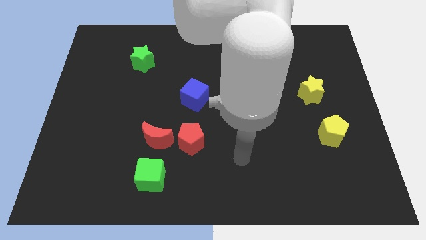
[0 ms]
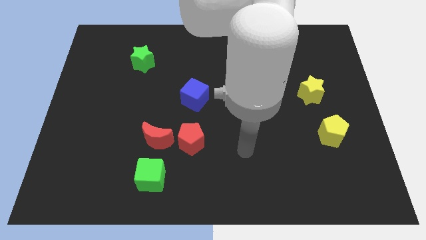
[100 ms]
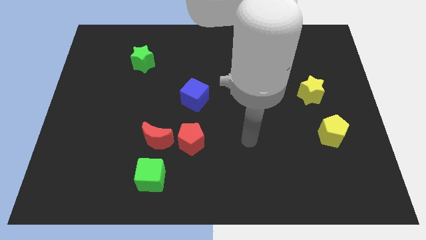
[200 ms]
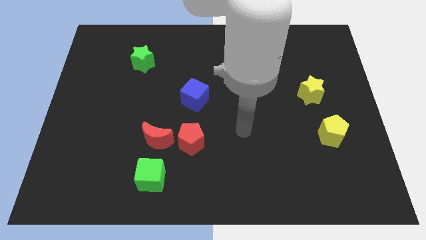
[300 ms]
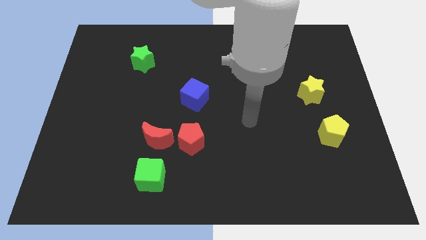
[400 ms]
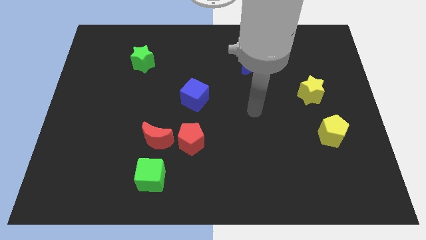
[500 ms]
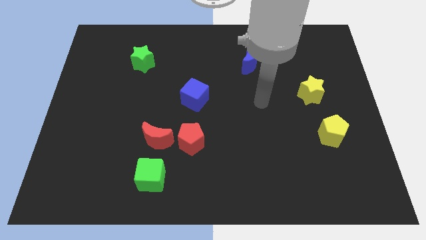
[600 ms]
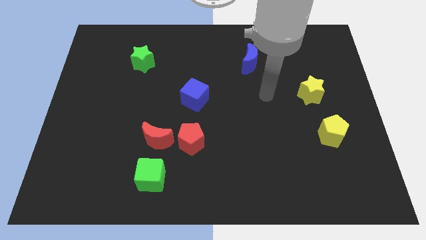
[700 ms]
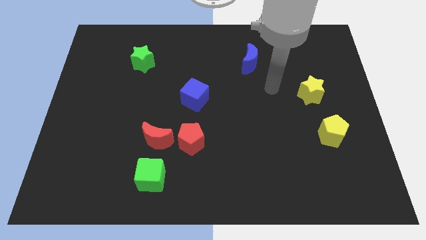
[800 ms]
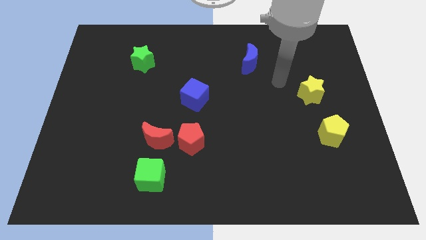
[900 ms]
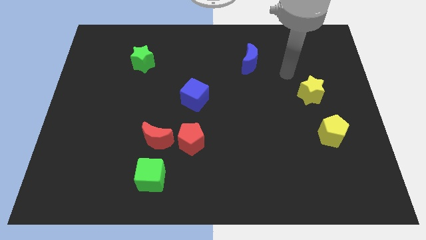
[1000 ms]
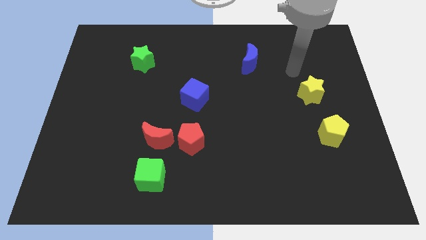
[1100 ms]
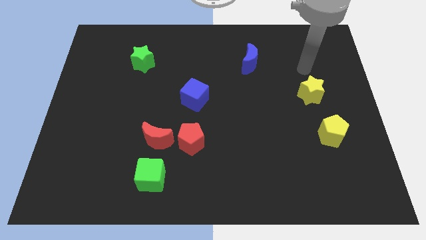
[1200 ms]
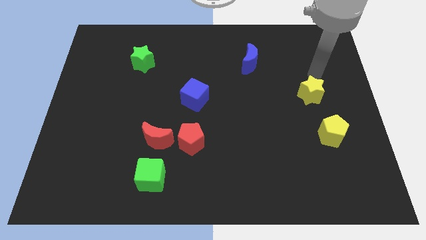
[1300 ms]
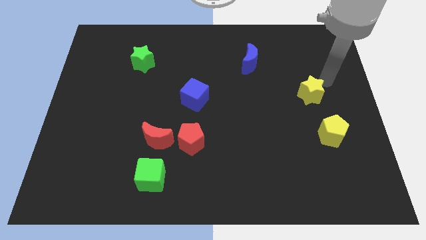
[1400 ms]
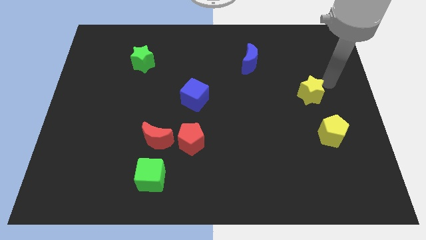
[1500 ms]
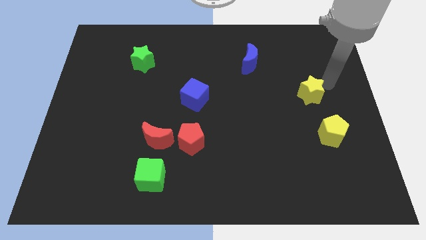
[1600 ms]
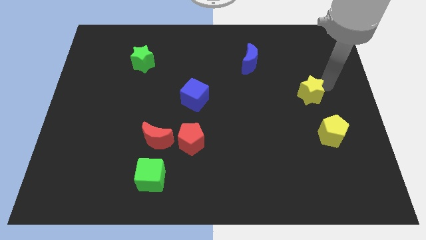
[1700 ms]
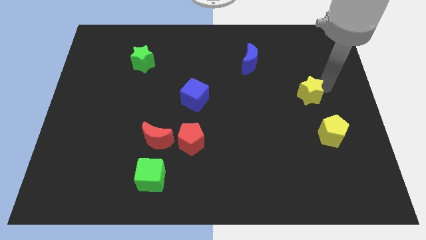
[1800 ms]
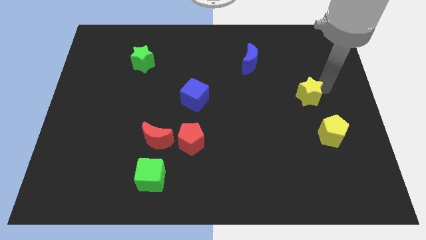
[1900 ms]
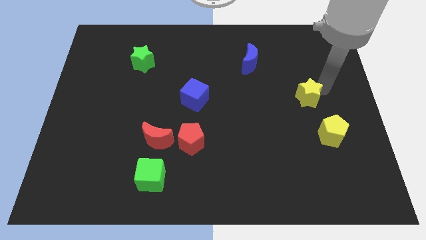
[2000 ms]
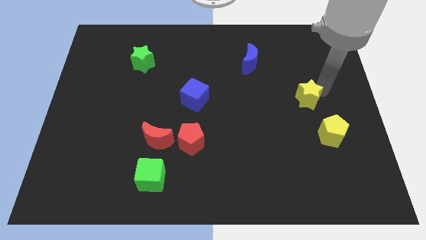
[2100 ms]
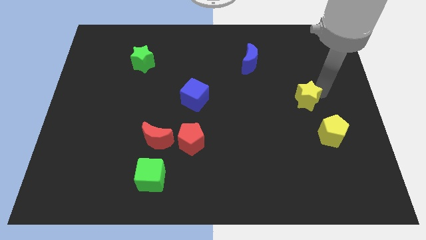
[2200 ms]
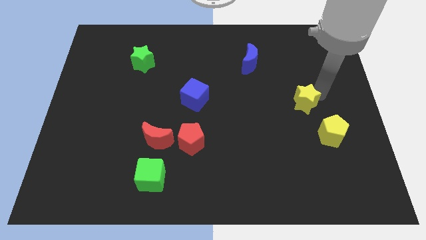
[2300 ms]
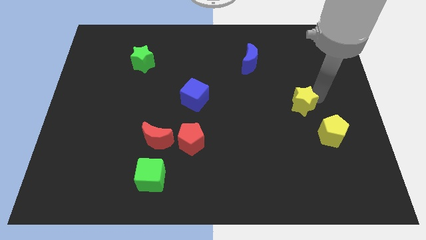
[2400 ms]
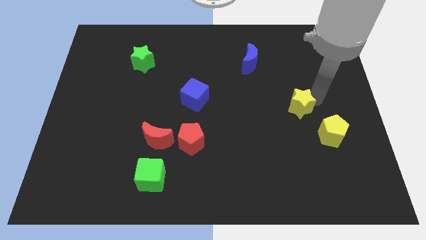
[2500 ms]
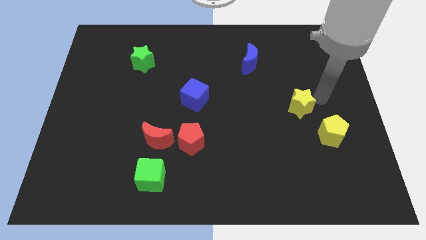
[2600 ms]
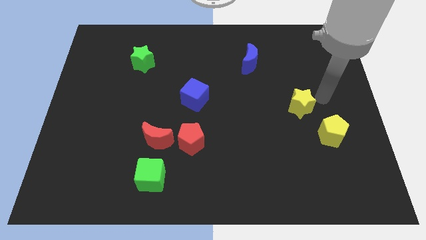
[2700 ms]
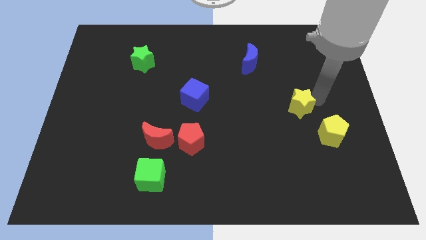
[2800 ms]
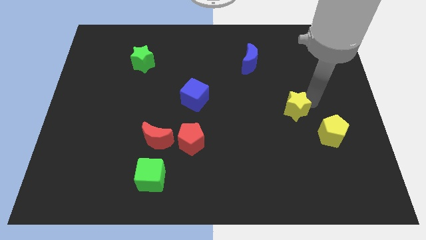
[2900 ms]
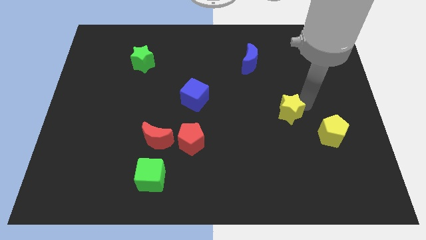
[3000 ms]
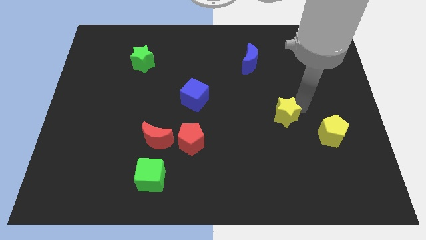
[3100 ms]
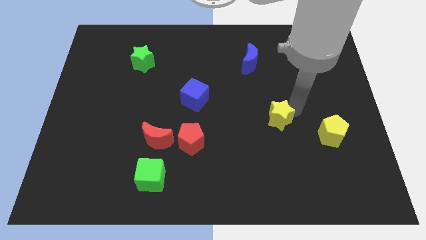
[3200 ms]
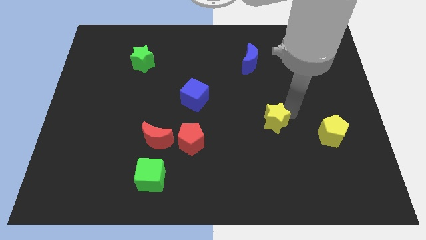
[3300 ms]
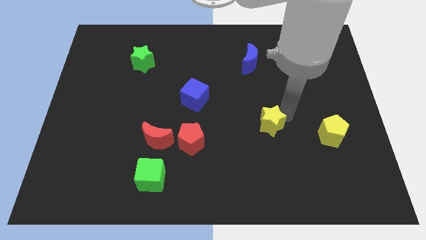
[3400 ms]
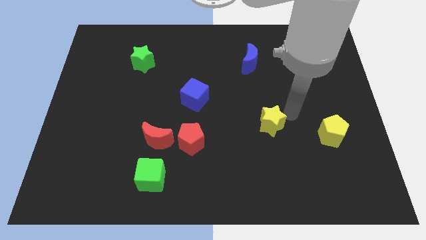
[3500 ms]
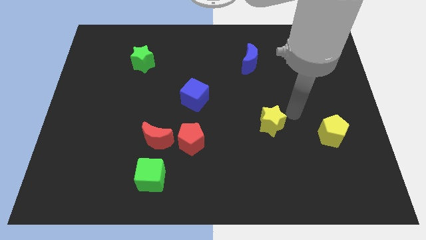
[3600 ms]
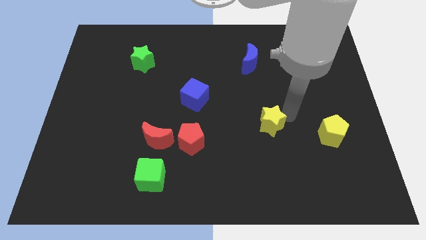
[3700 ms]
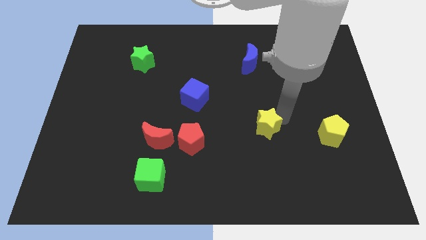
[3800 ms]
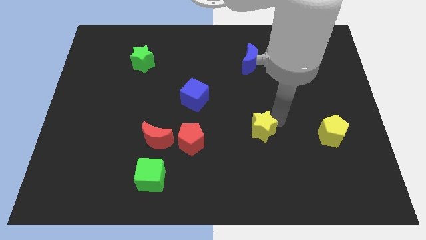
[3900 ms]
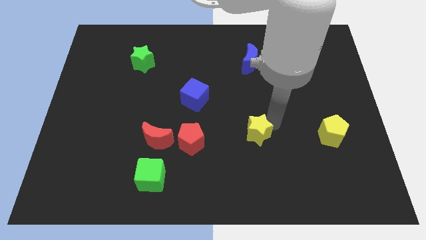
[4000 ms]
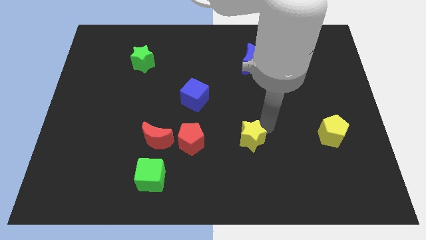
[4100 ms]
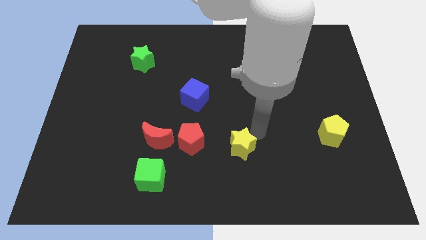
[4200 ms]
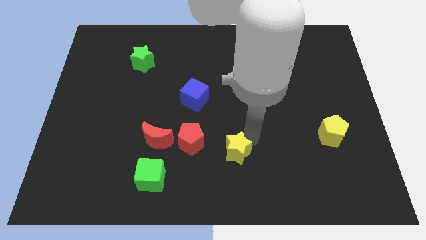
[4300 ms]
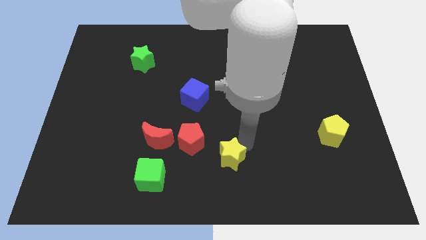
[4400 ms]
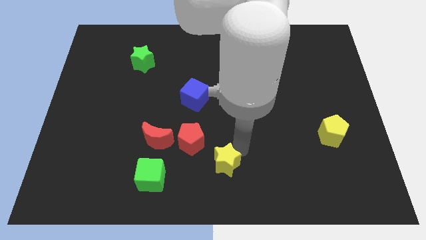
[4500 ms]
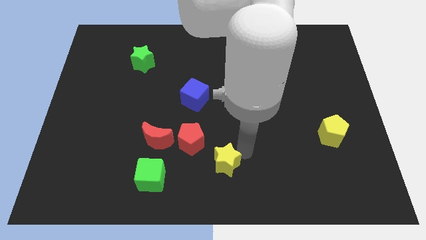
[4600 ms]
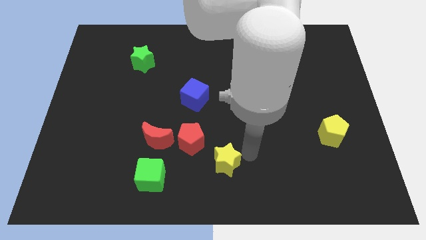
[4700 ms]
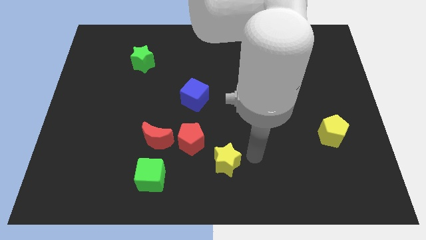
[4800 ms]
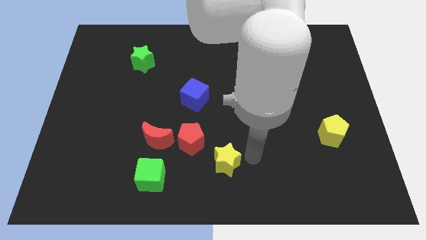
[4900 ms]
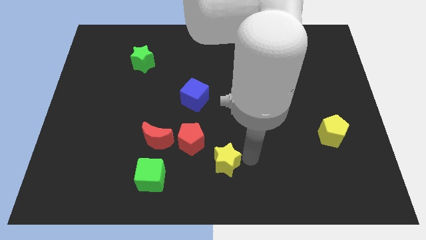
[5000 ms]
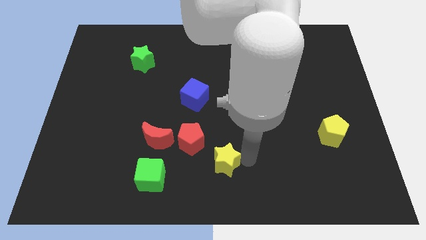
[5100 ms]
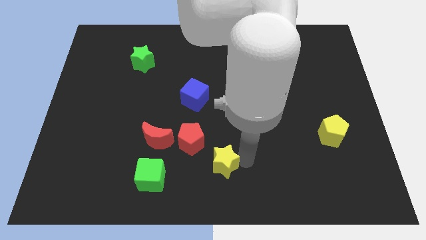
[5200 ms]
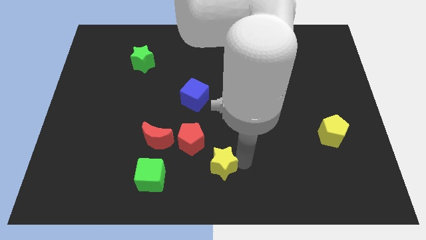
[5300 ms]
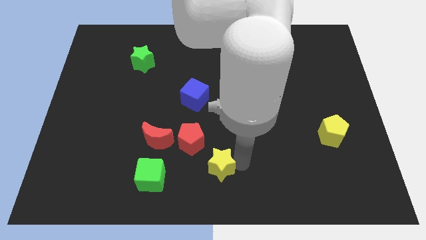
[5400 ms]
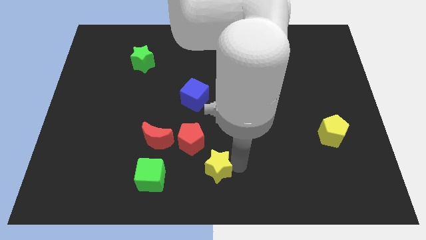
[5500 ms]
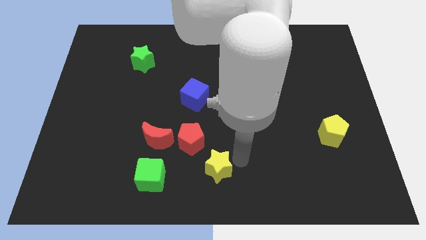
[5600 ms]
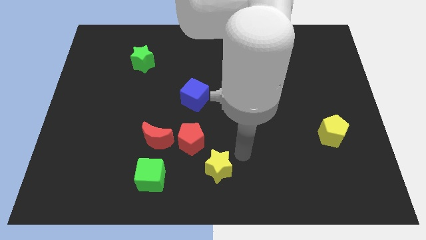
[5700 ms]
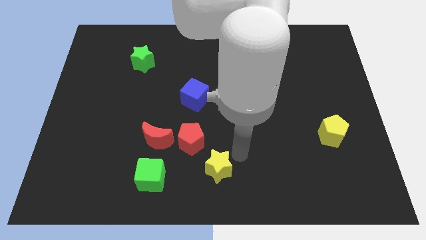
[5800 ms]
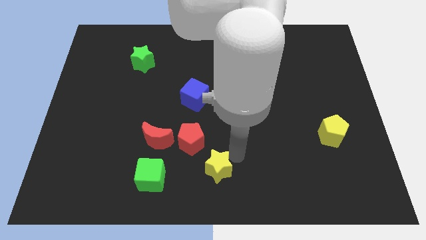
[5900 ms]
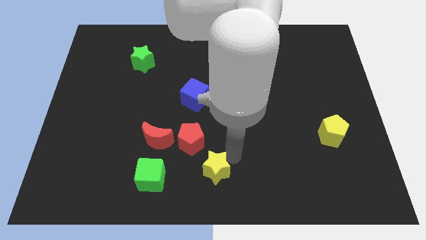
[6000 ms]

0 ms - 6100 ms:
slide the yellow star to the bottom side of the red pentagon

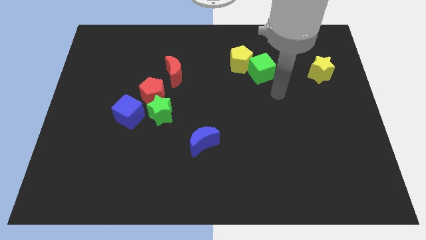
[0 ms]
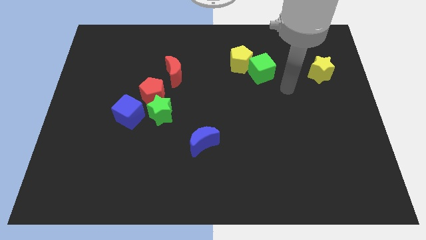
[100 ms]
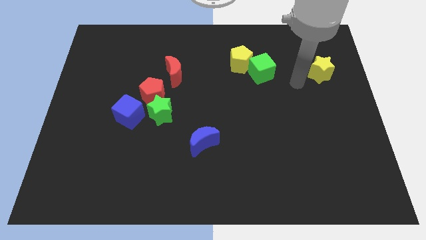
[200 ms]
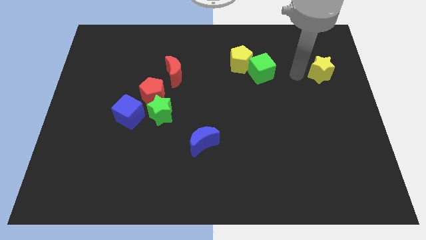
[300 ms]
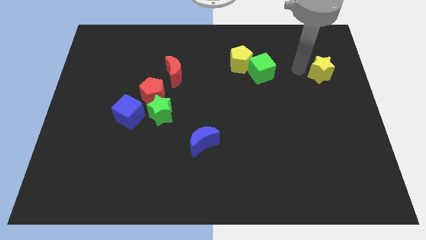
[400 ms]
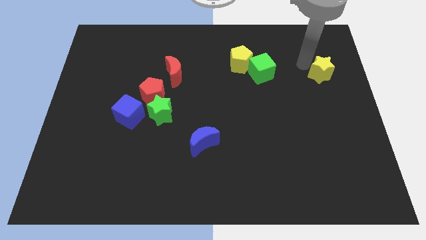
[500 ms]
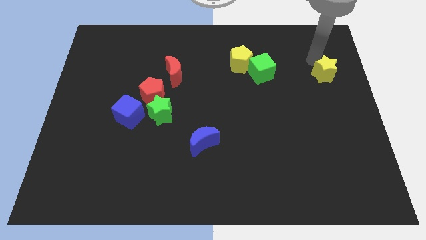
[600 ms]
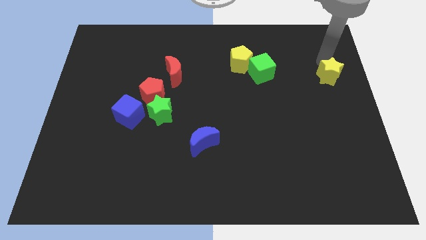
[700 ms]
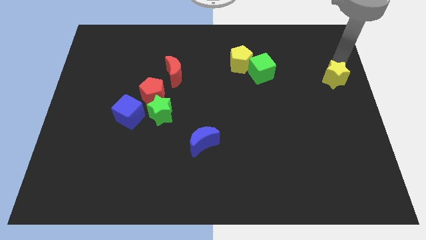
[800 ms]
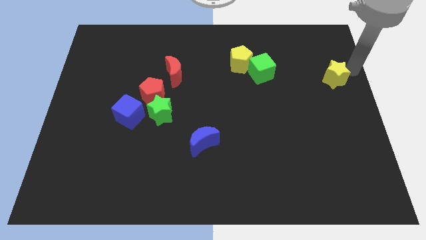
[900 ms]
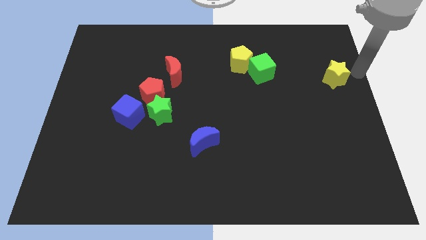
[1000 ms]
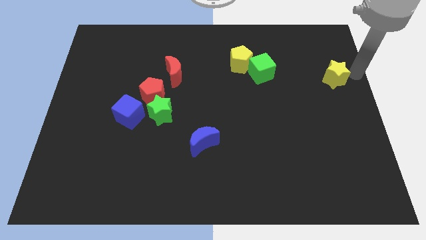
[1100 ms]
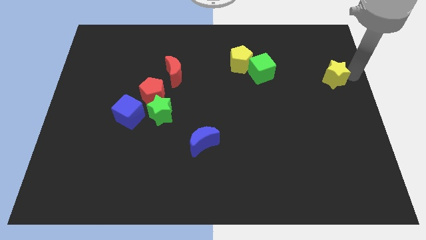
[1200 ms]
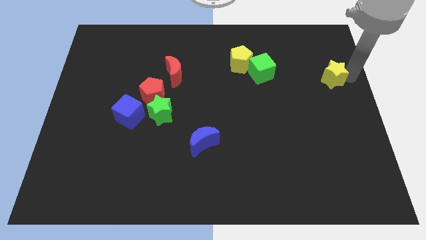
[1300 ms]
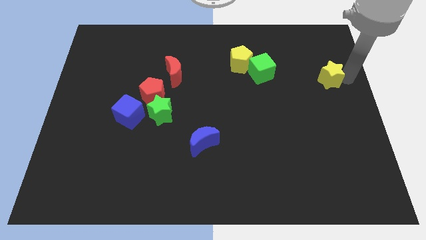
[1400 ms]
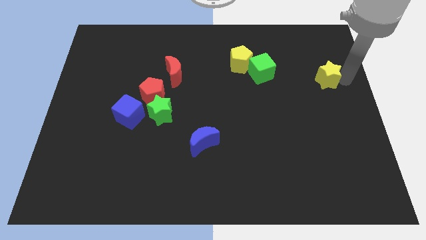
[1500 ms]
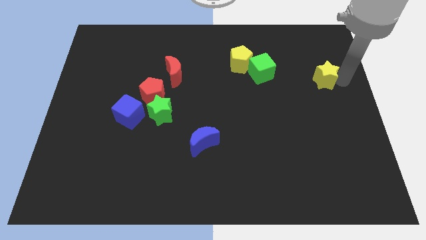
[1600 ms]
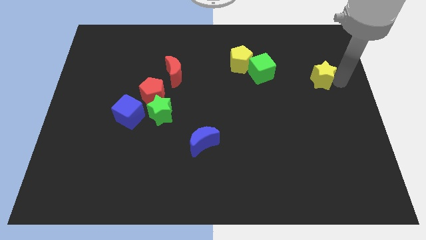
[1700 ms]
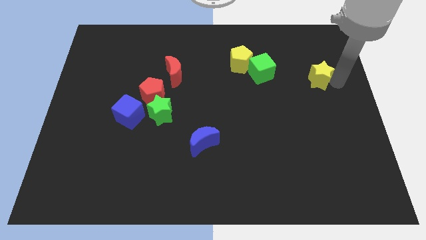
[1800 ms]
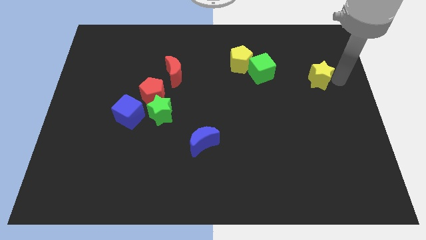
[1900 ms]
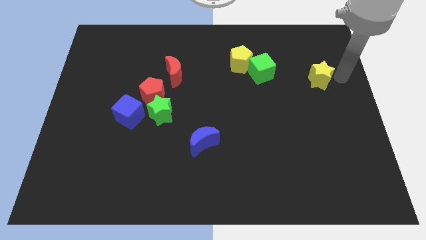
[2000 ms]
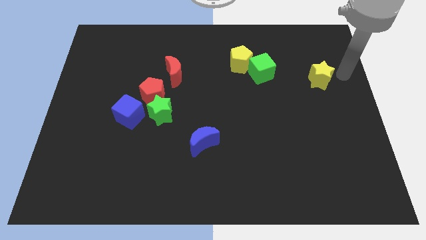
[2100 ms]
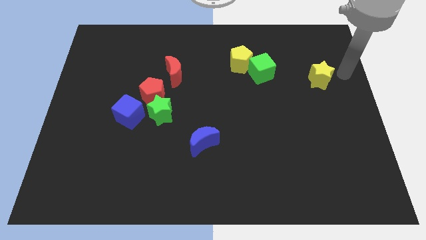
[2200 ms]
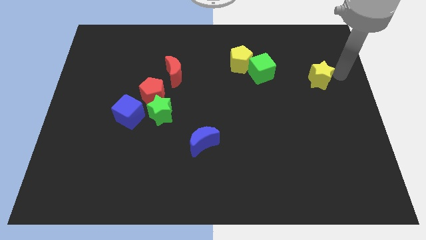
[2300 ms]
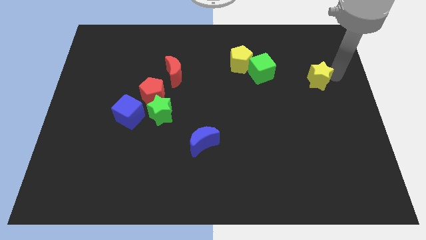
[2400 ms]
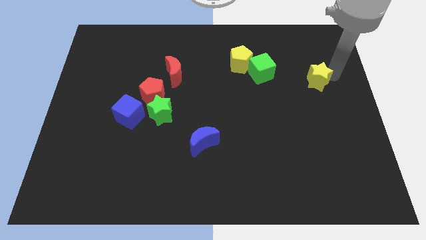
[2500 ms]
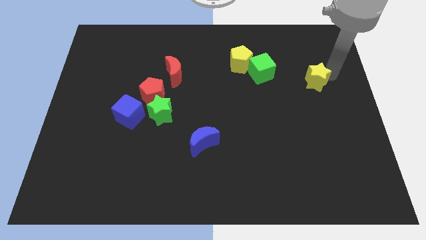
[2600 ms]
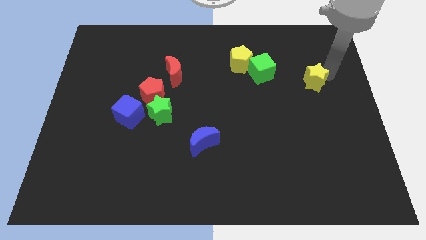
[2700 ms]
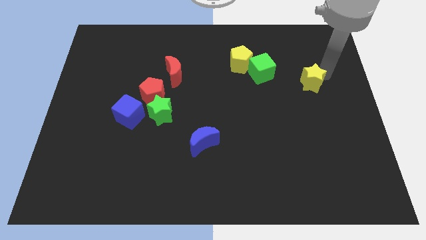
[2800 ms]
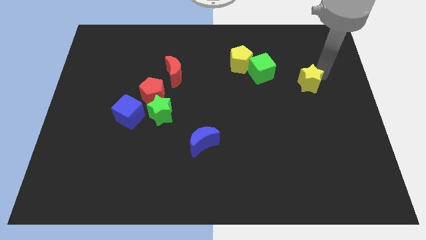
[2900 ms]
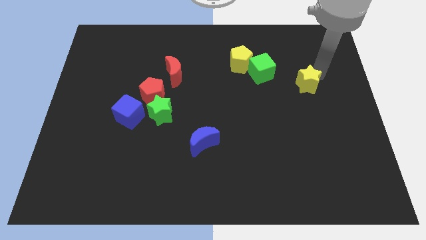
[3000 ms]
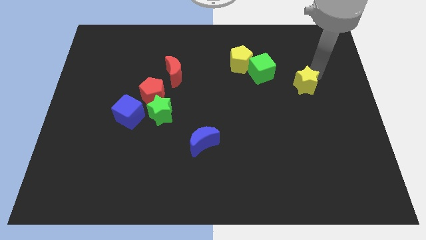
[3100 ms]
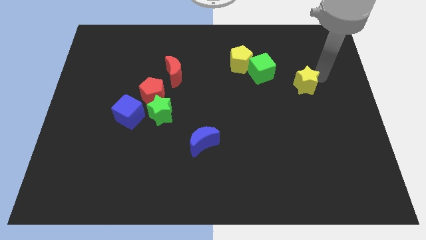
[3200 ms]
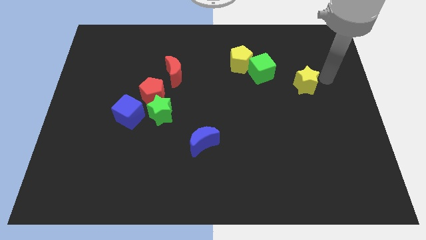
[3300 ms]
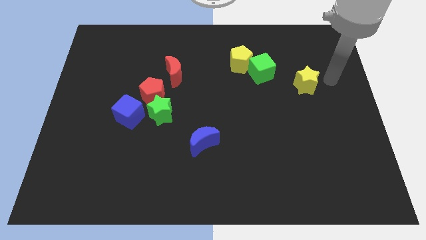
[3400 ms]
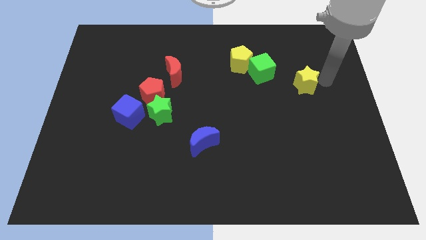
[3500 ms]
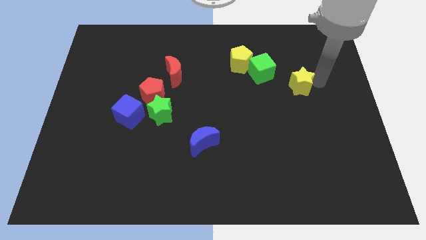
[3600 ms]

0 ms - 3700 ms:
slide the yellow star to the bottom right side of the green cube
